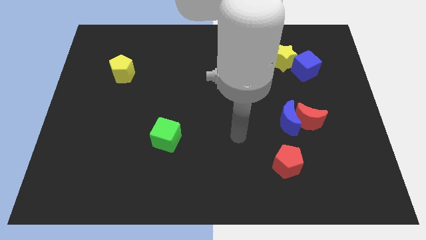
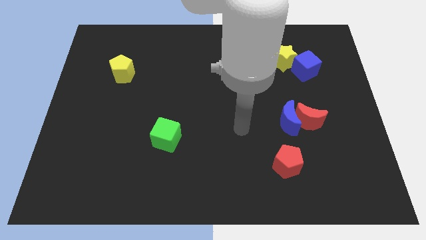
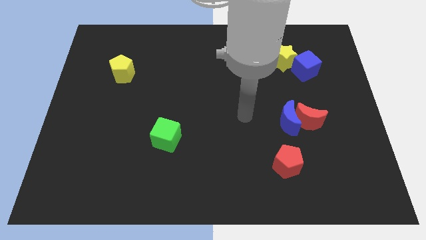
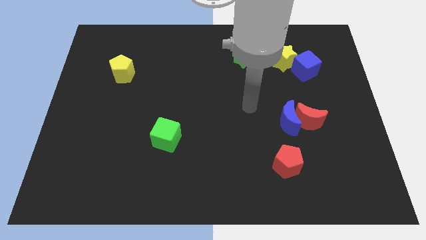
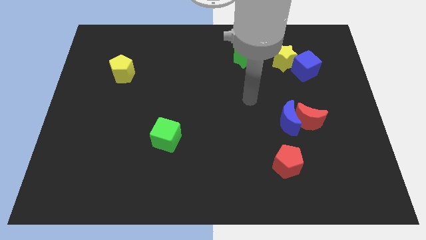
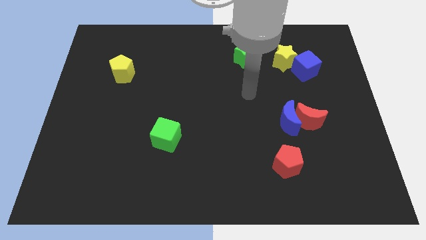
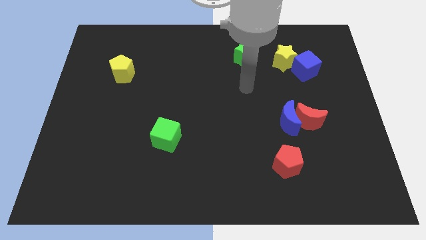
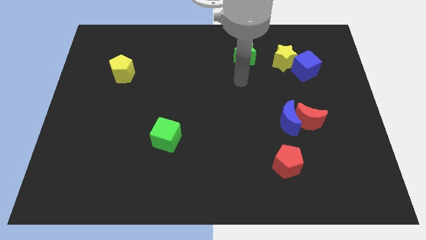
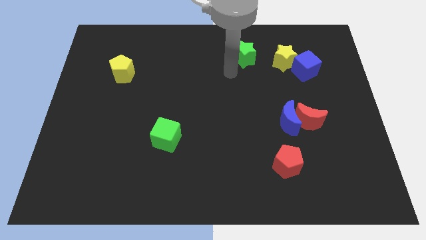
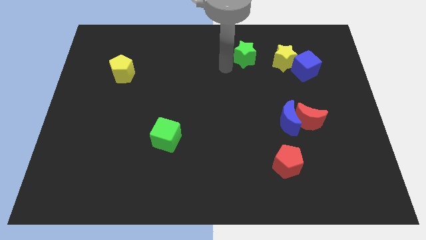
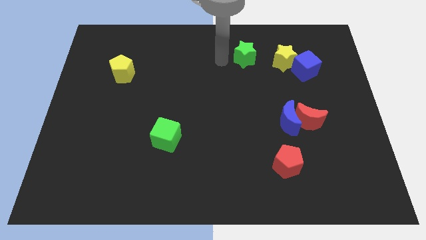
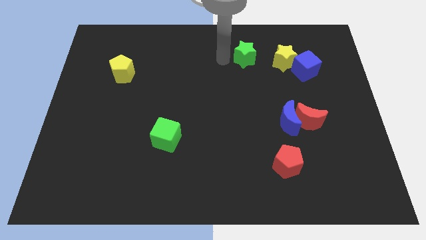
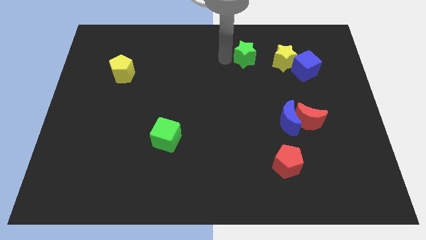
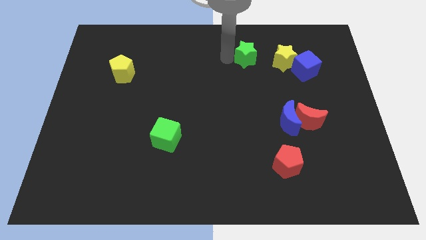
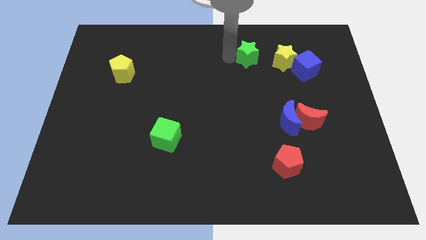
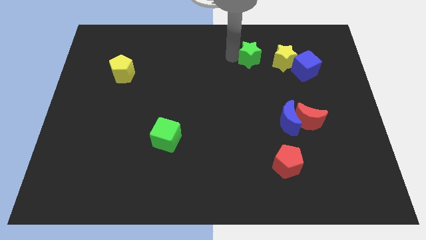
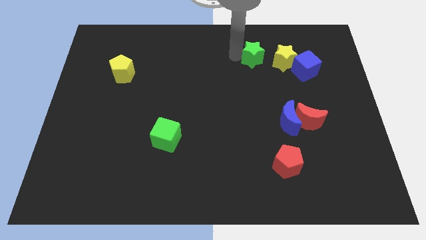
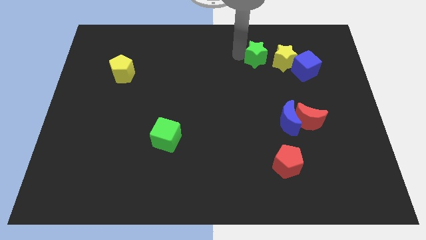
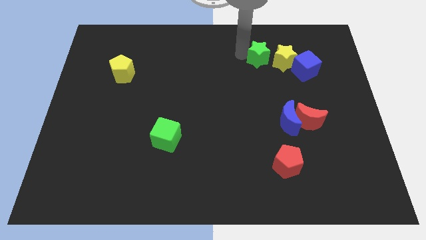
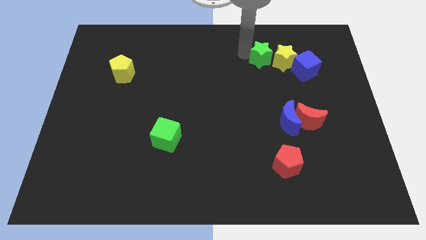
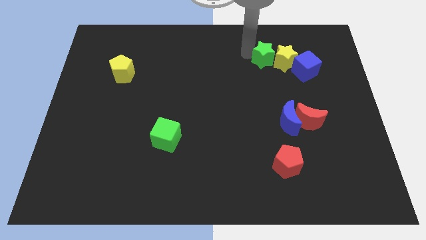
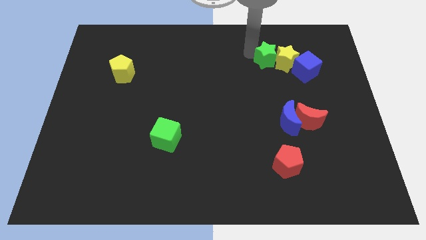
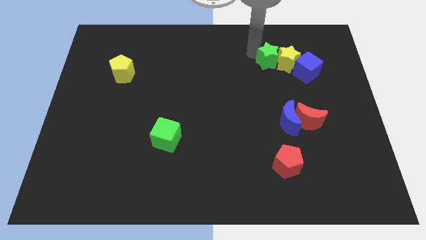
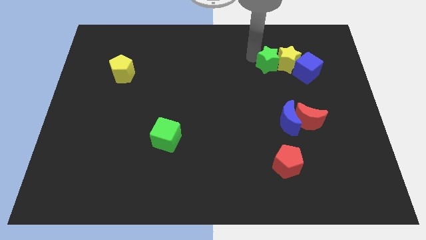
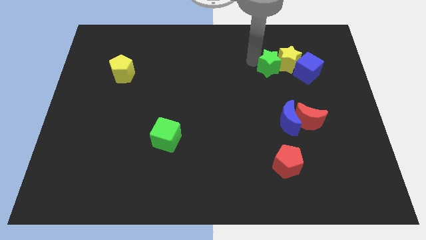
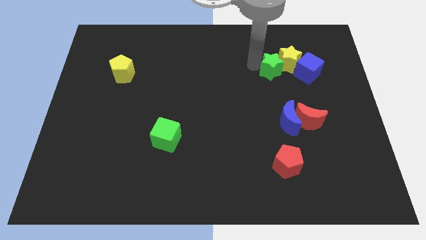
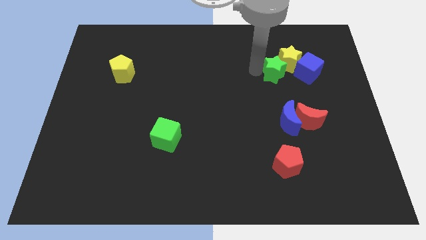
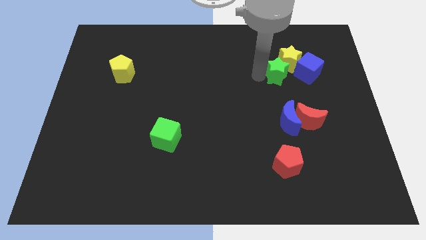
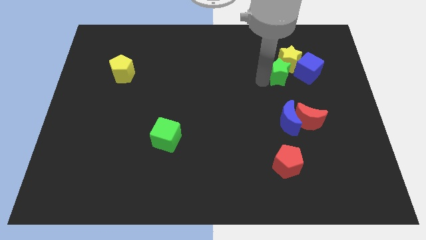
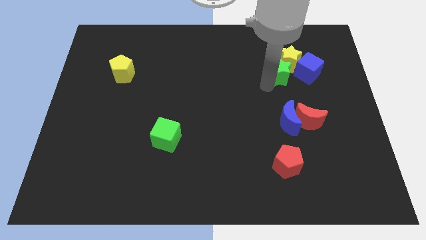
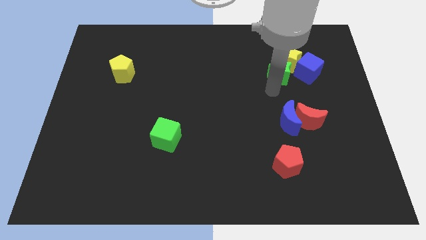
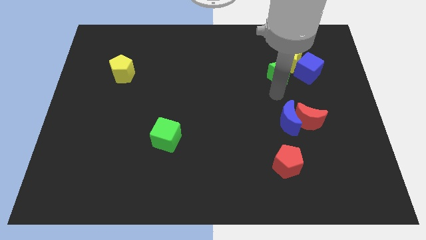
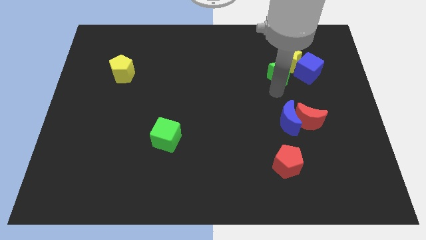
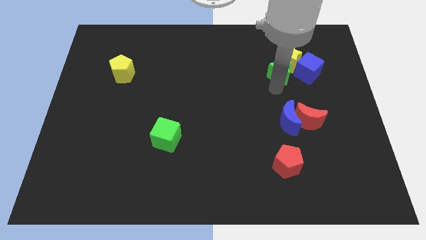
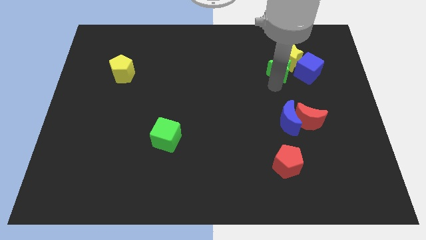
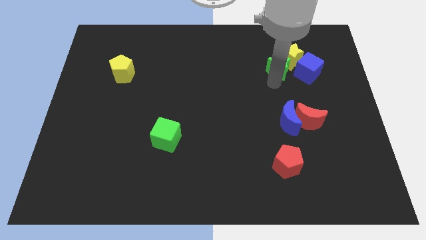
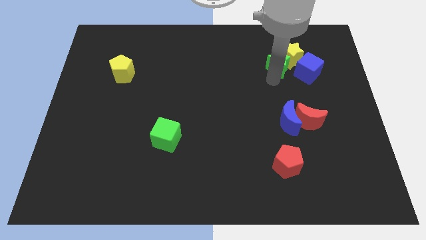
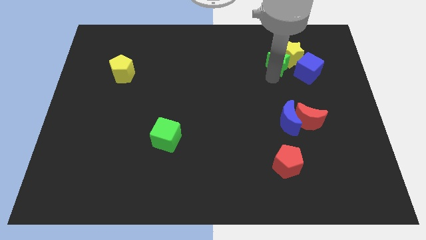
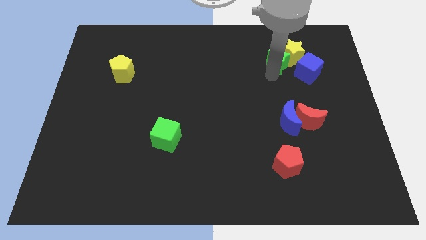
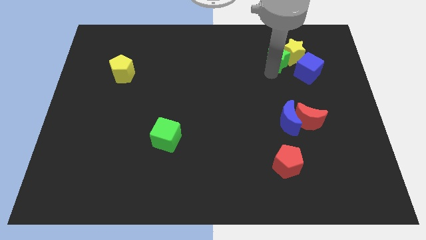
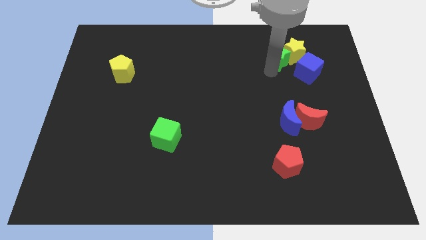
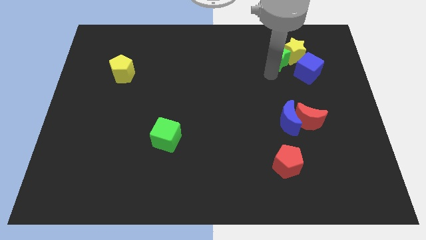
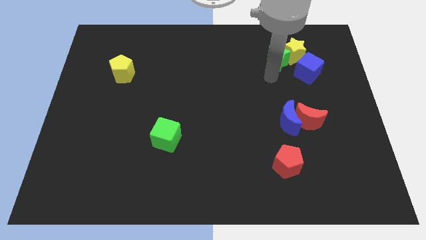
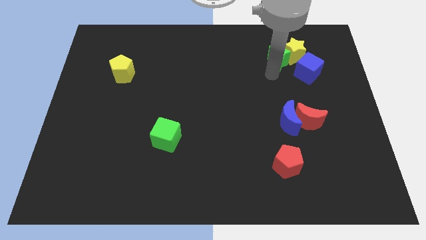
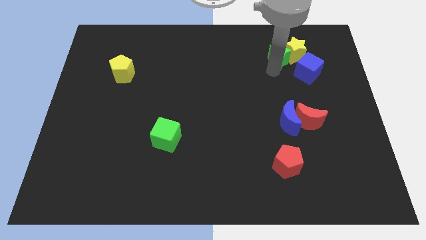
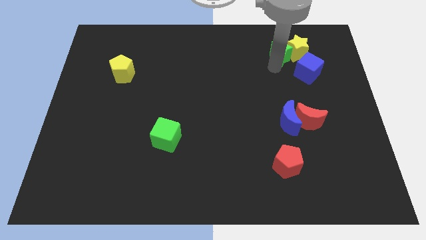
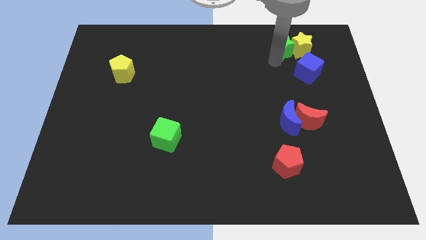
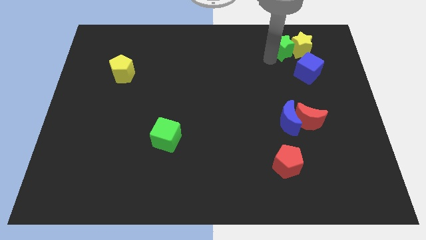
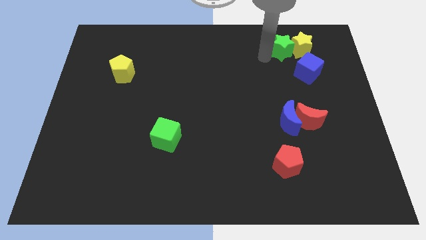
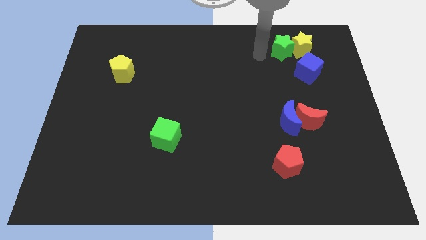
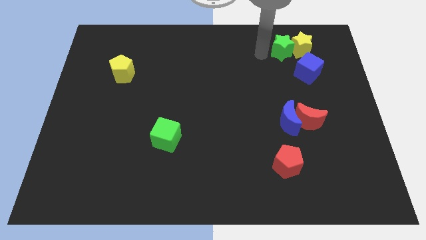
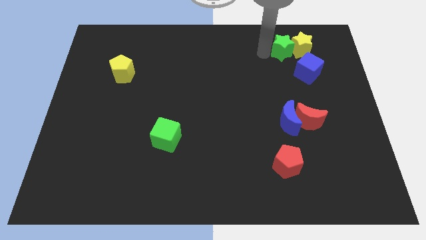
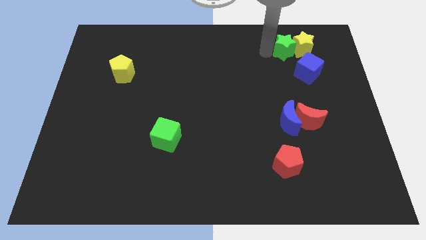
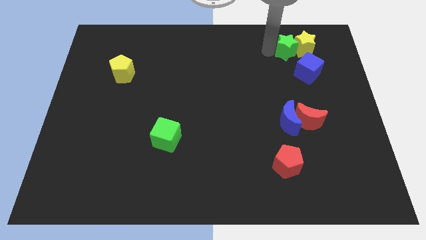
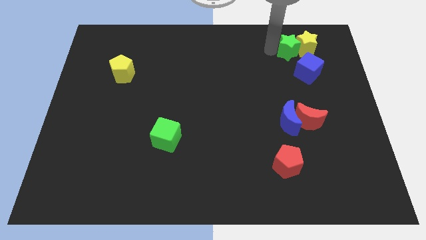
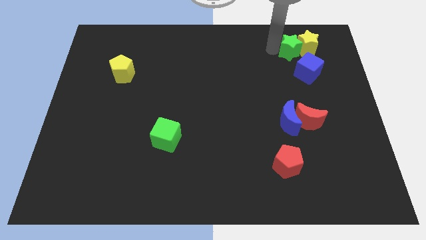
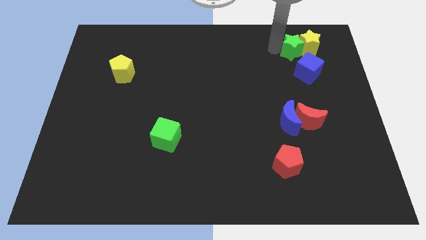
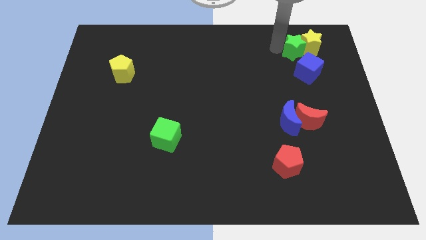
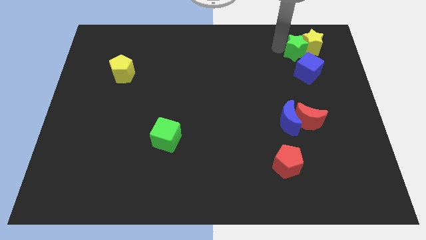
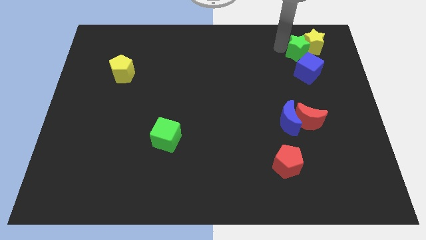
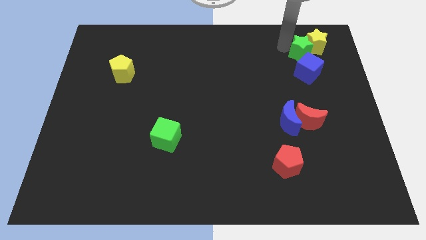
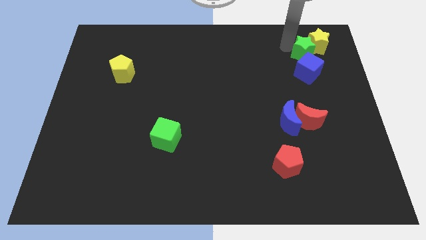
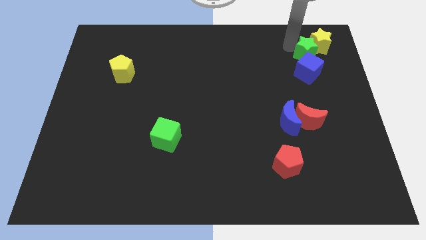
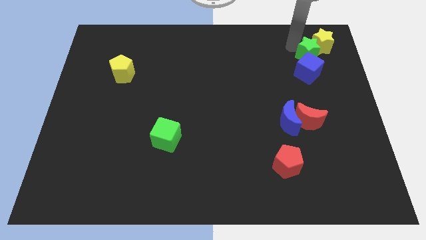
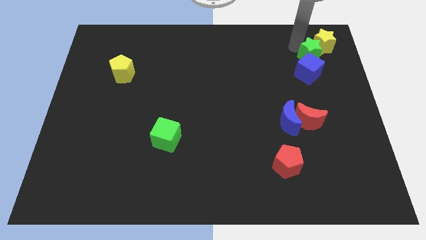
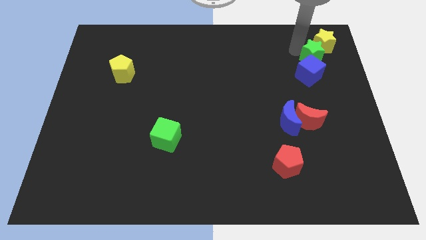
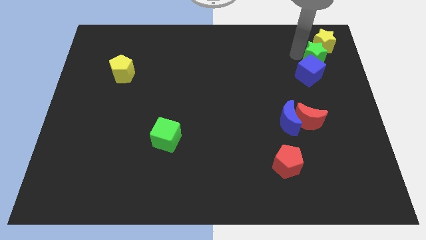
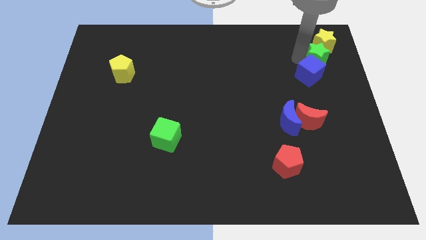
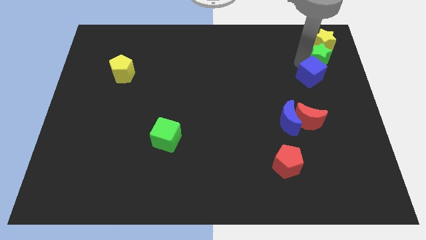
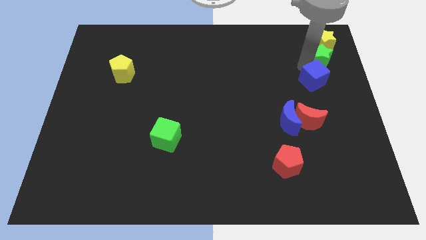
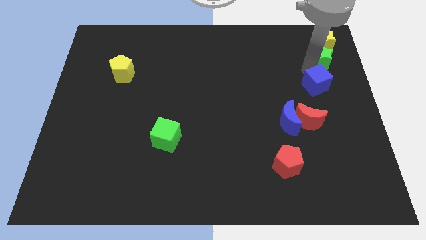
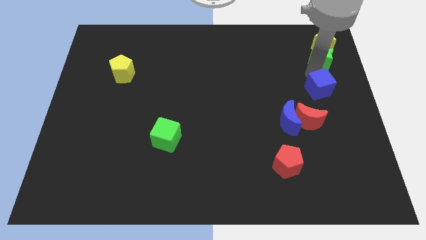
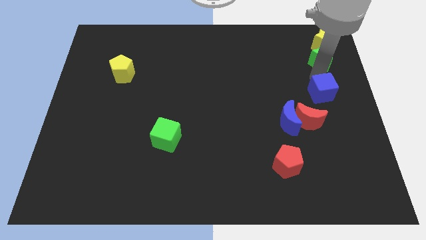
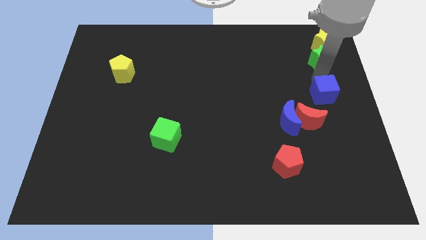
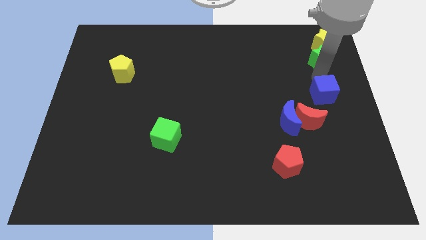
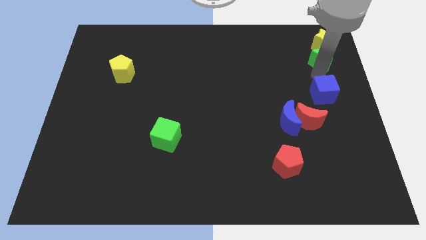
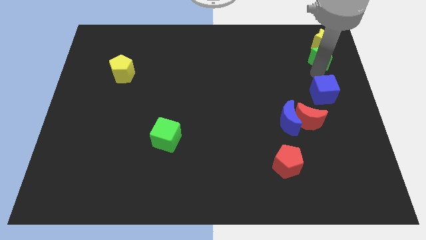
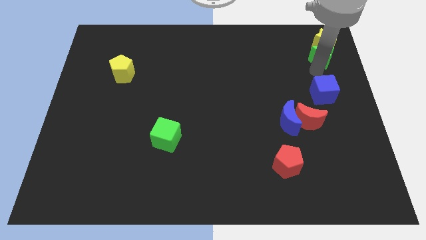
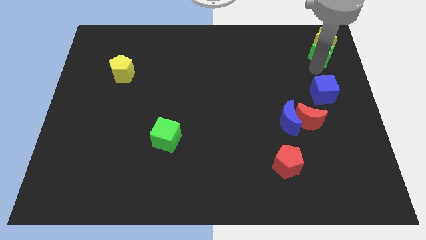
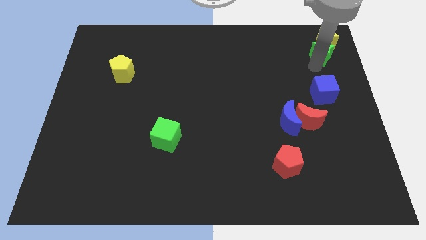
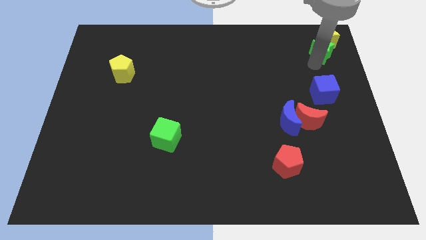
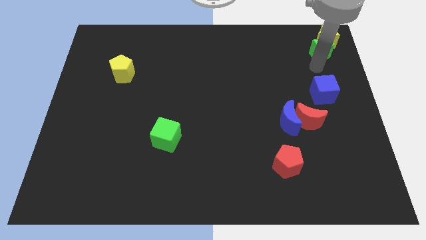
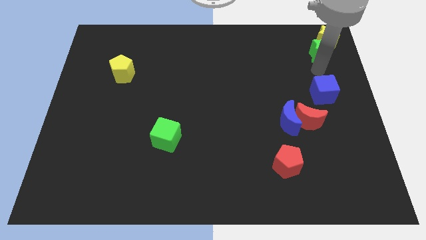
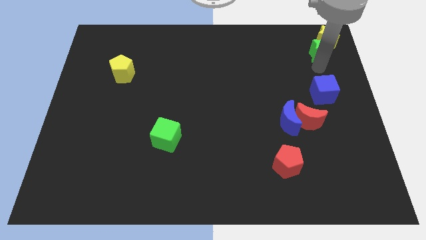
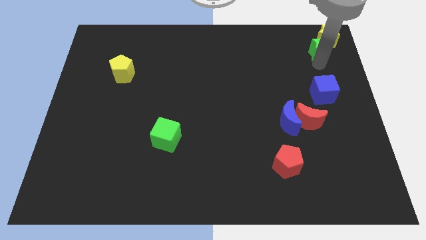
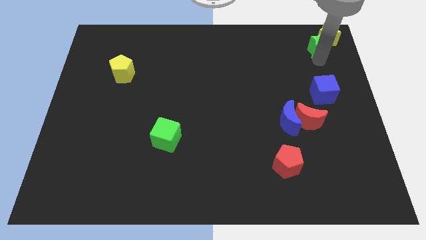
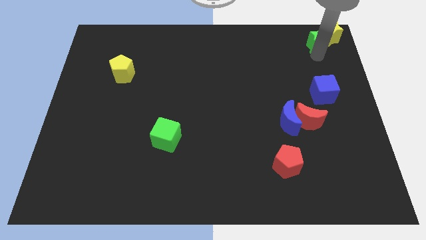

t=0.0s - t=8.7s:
push the green star to the top right of the board
